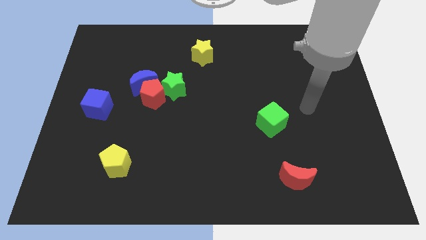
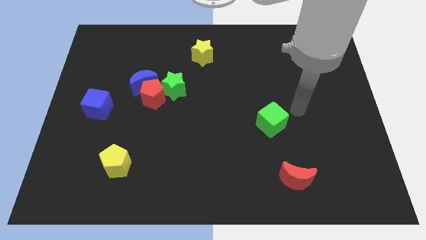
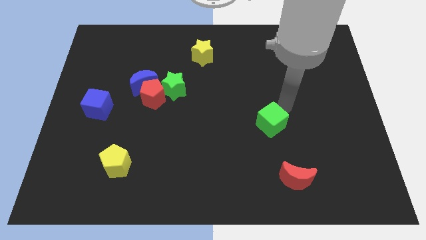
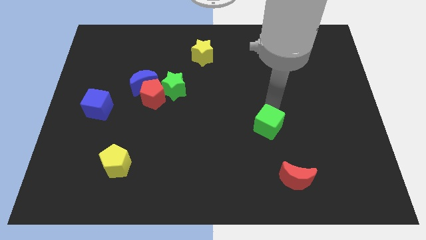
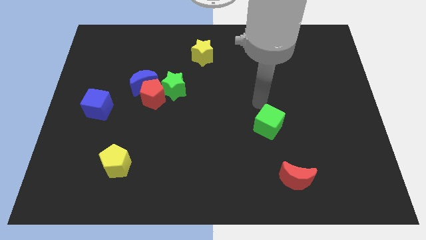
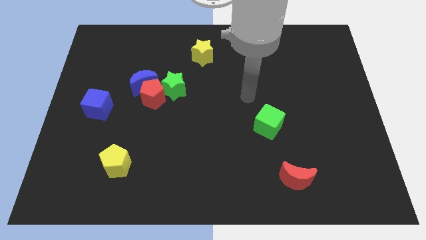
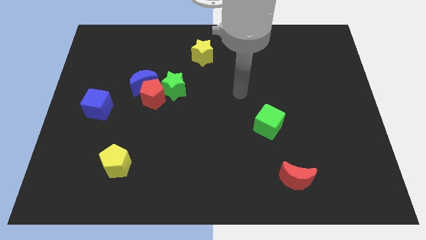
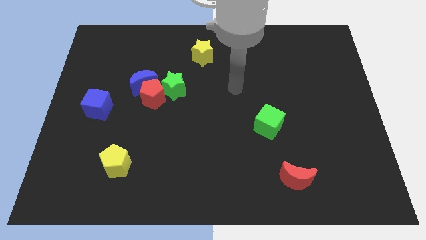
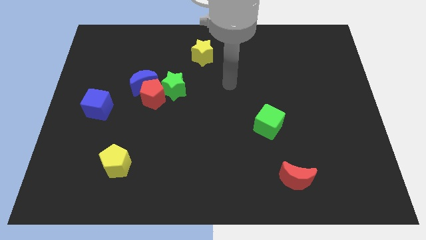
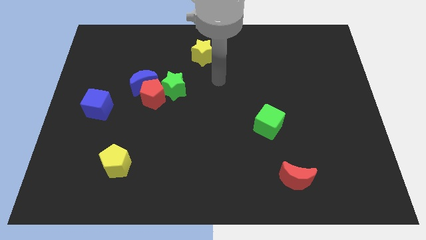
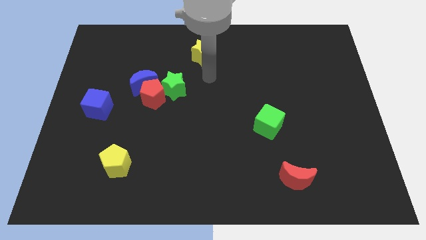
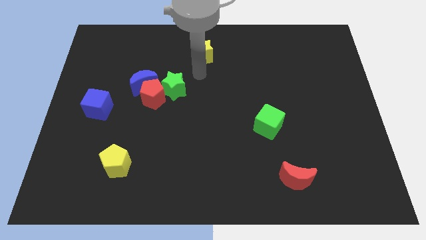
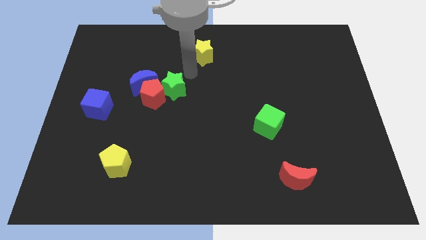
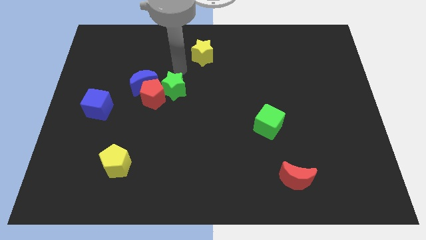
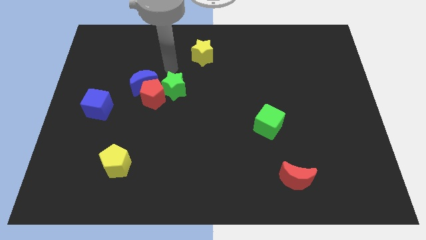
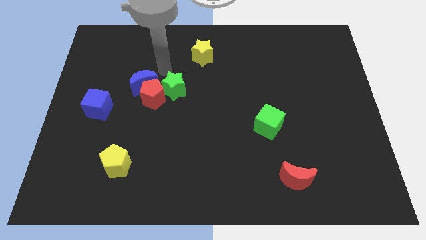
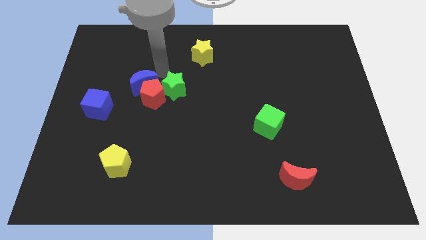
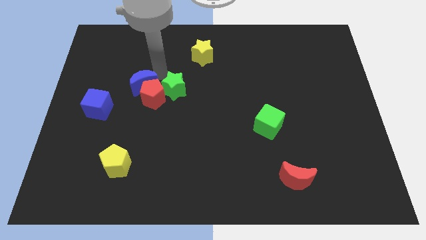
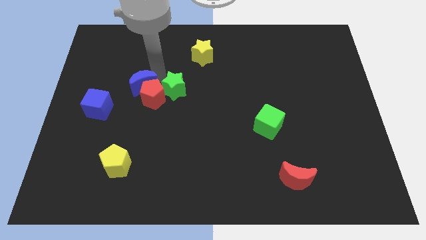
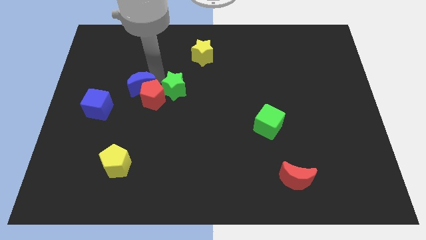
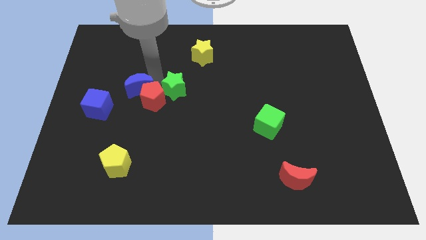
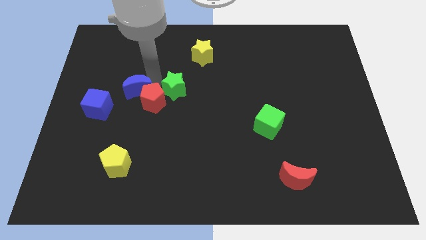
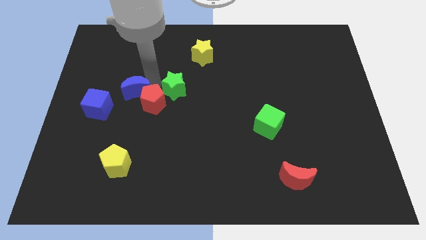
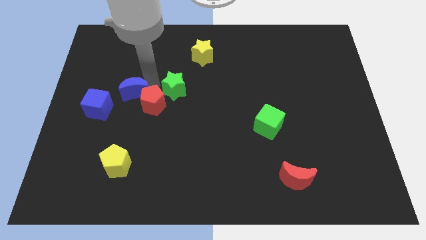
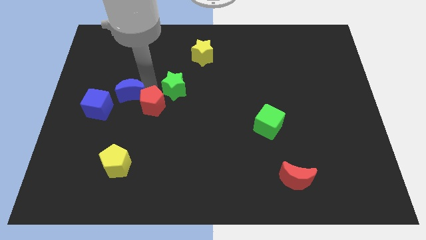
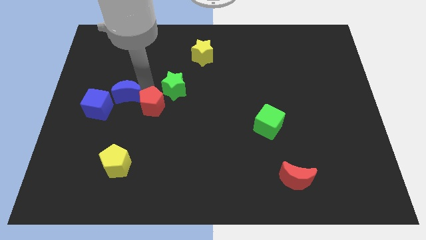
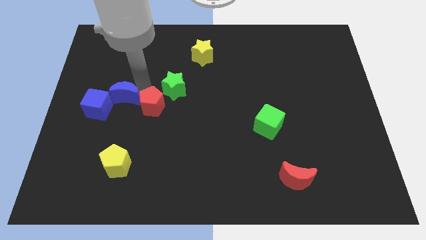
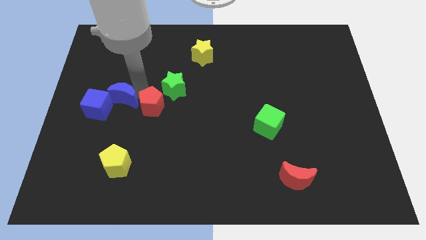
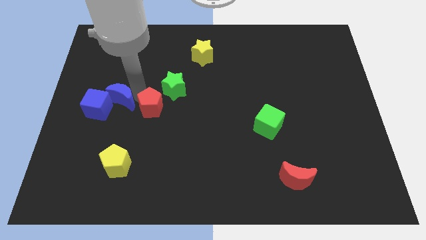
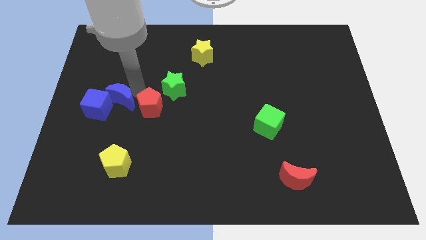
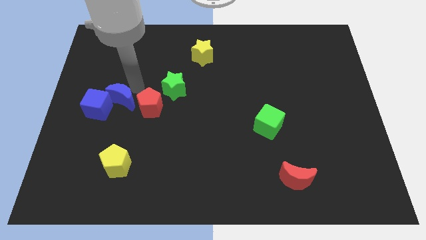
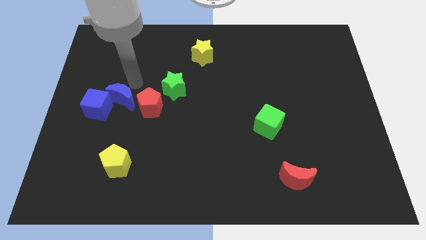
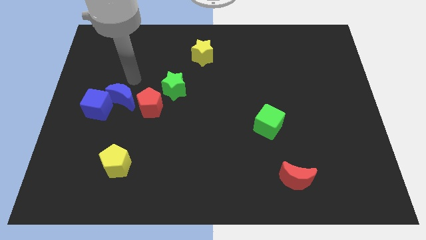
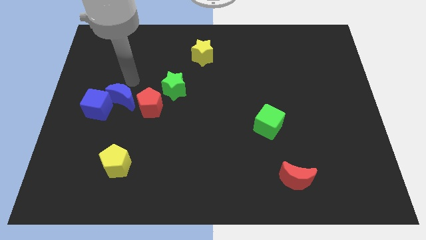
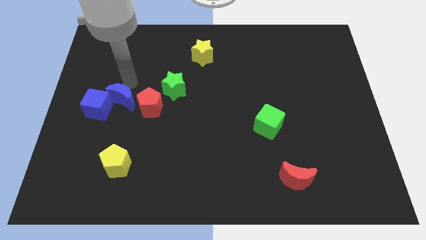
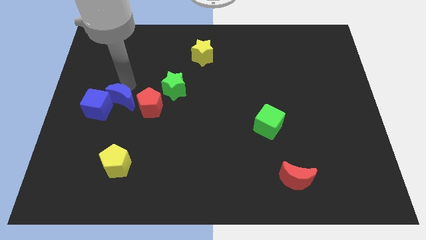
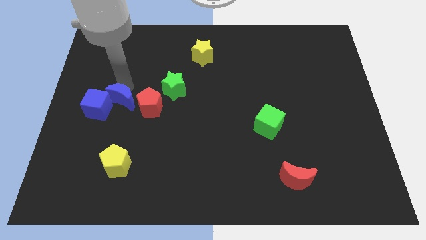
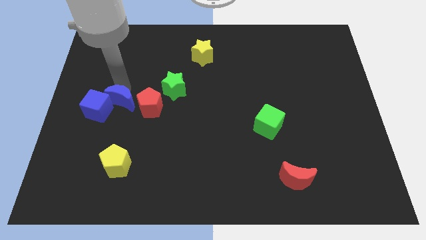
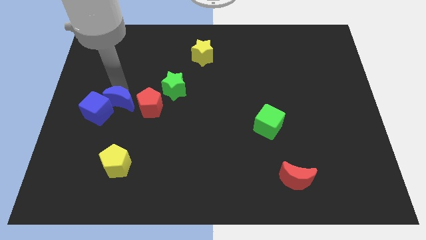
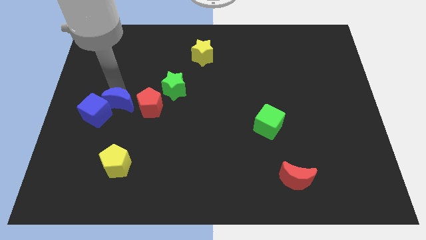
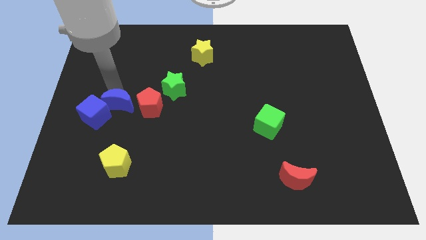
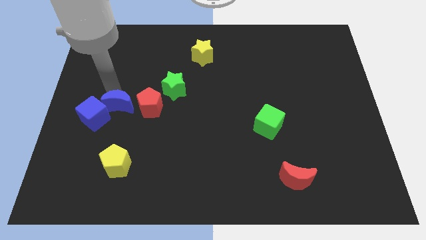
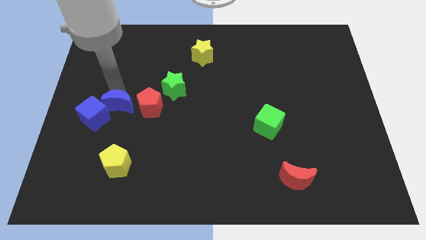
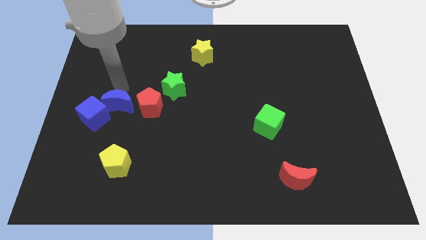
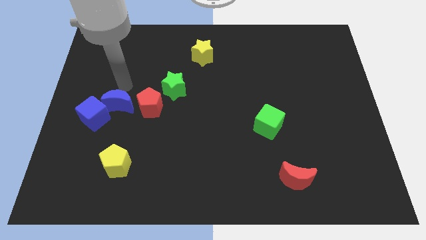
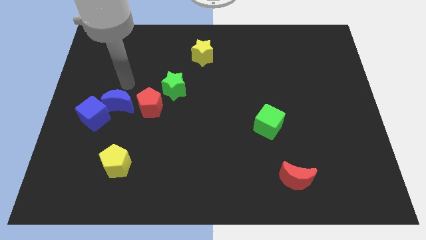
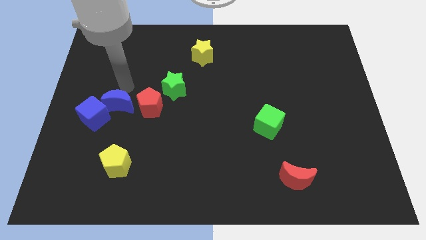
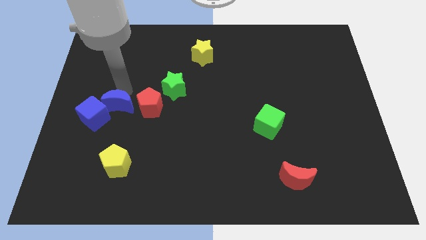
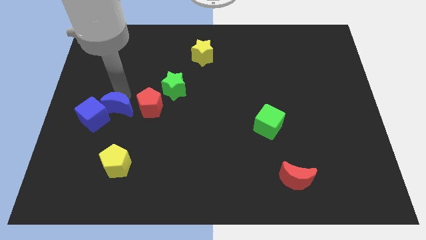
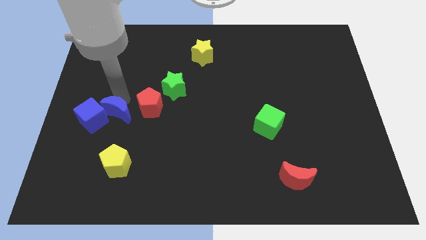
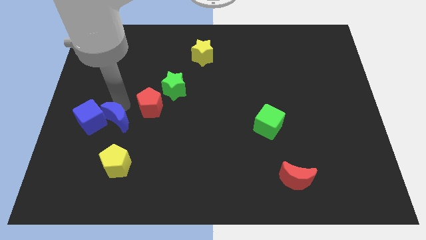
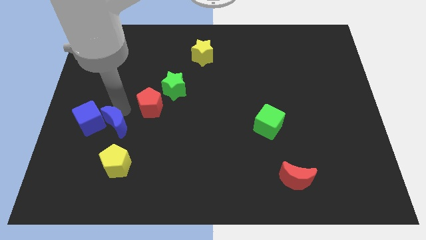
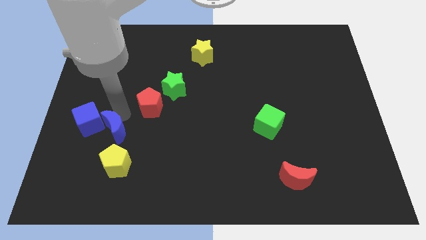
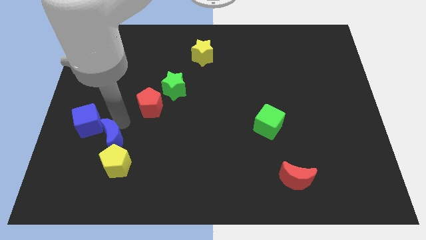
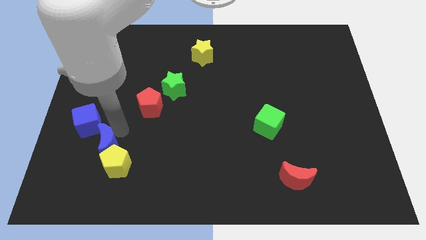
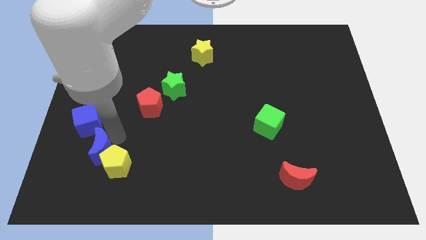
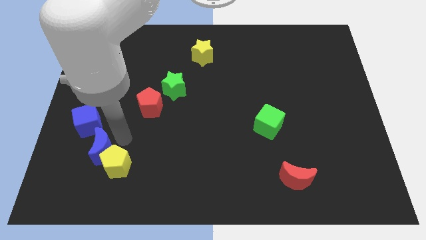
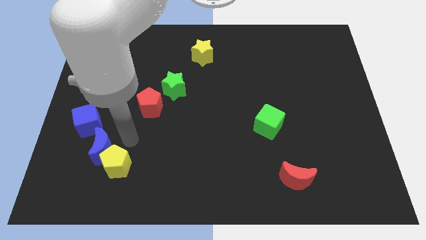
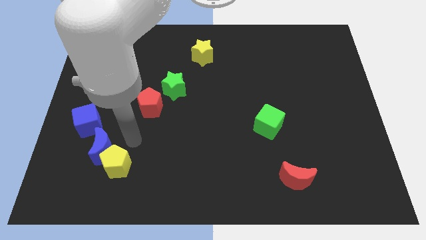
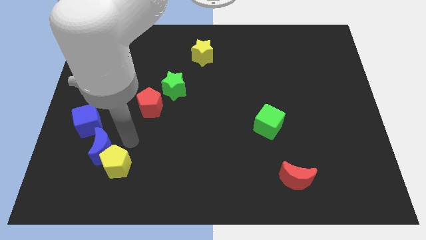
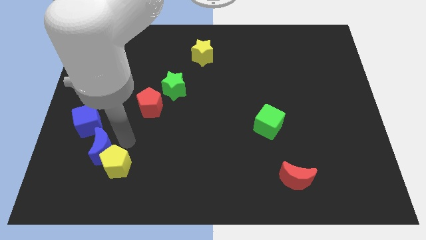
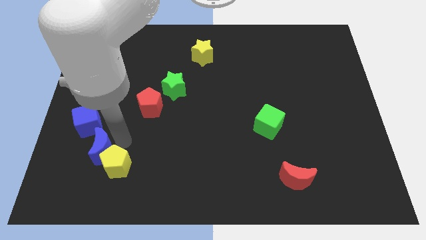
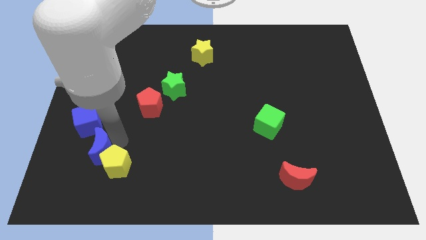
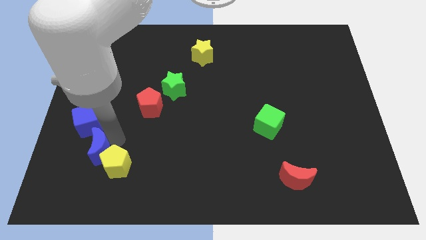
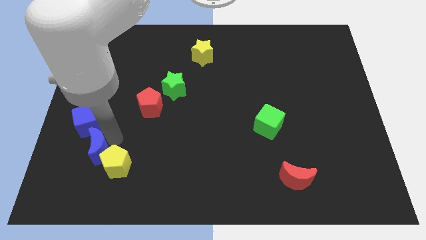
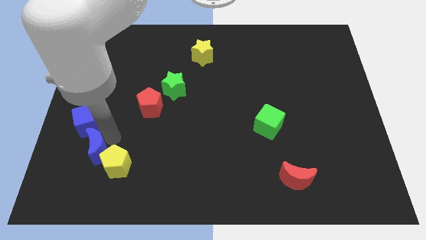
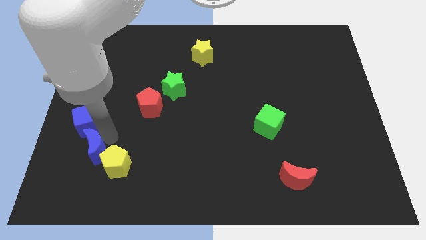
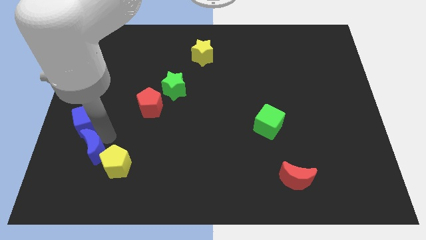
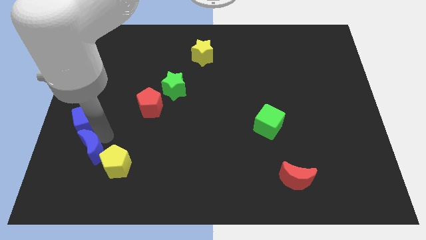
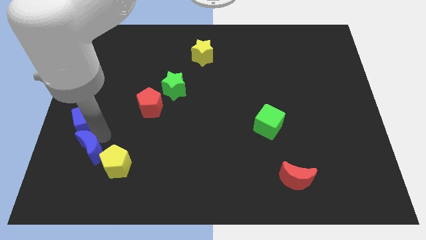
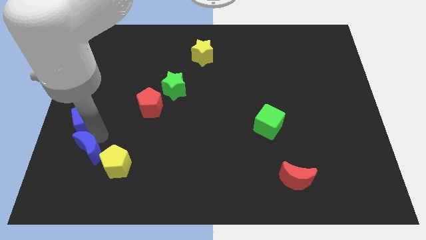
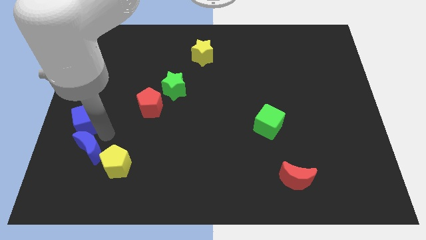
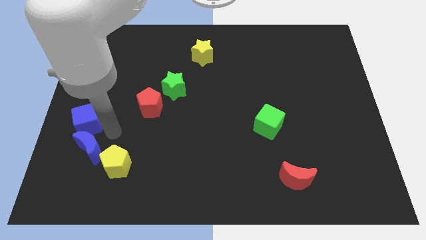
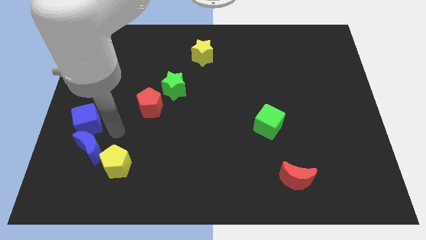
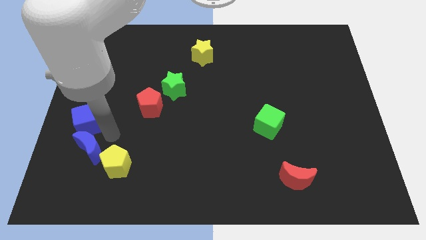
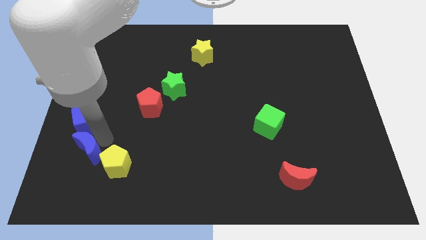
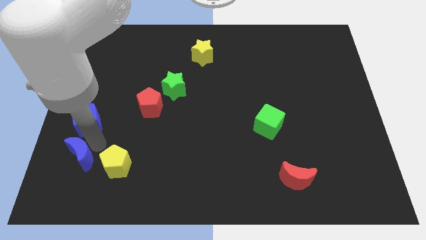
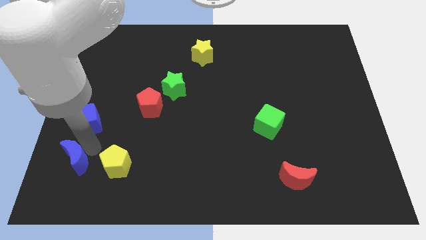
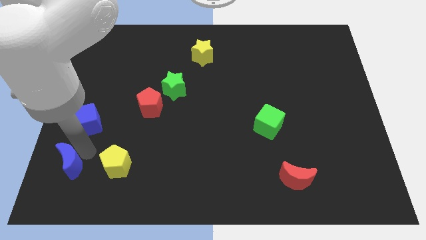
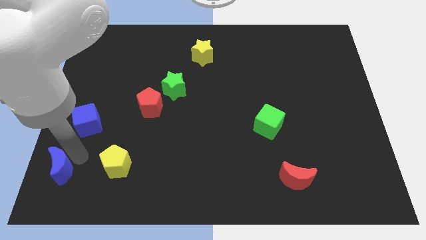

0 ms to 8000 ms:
move the blue moon to the bottom left
